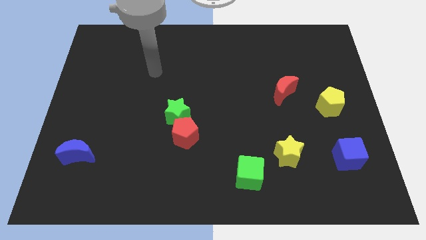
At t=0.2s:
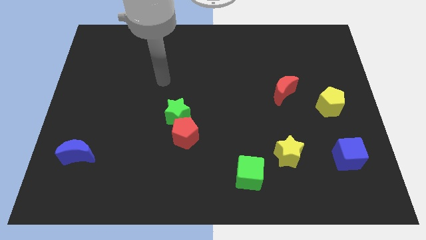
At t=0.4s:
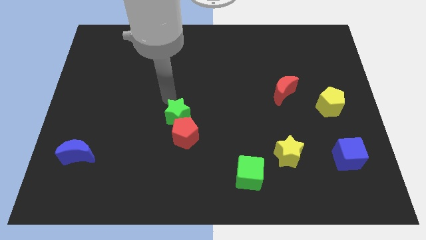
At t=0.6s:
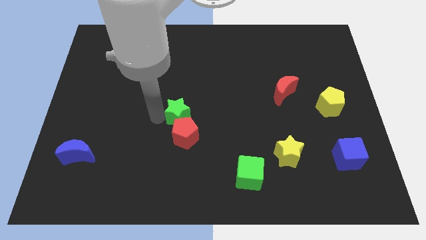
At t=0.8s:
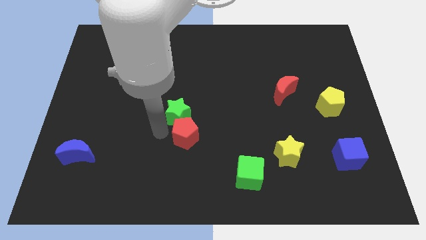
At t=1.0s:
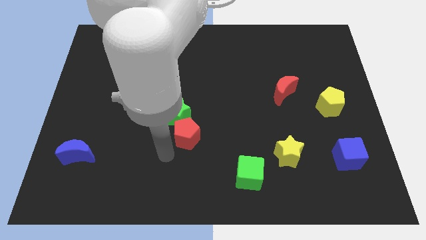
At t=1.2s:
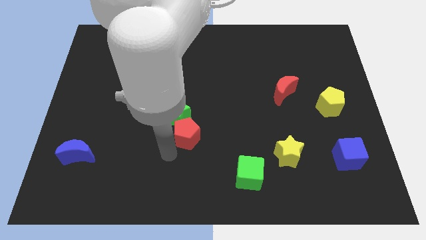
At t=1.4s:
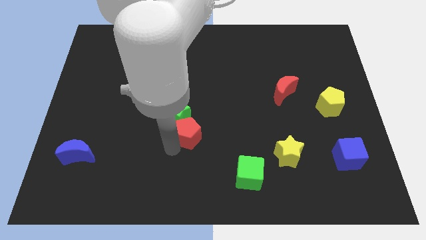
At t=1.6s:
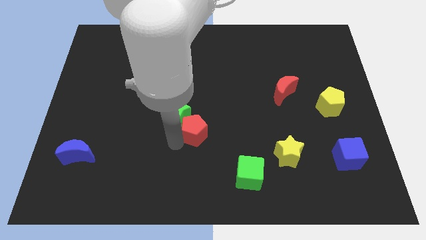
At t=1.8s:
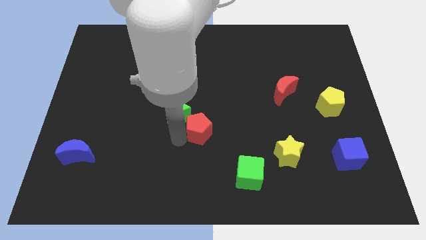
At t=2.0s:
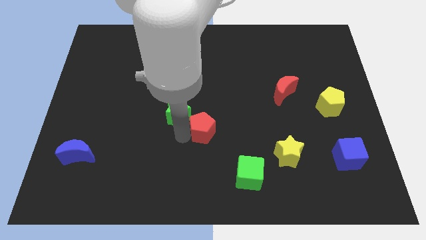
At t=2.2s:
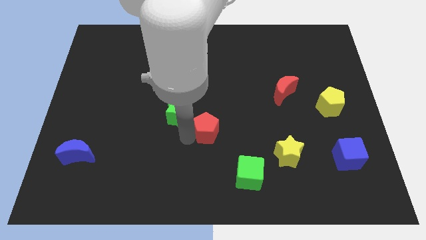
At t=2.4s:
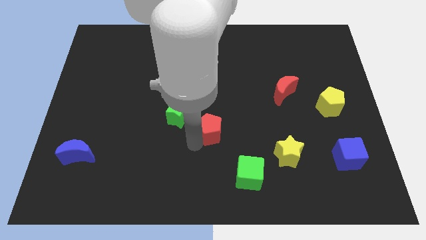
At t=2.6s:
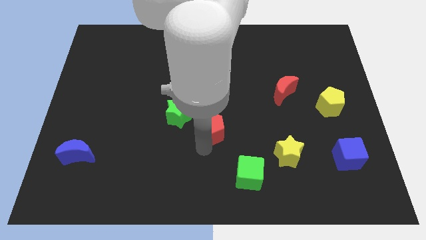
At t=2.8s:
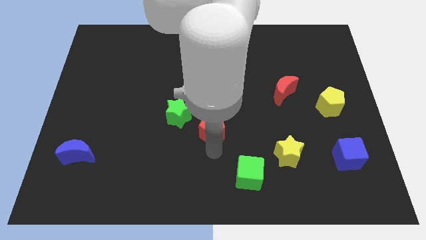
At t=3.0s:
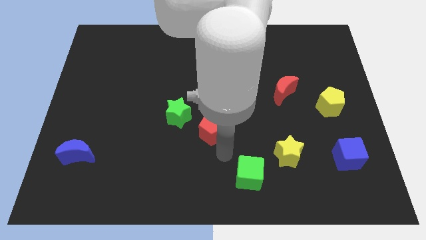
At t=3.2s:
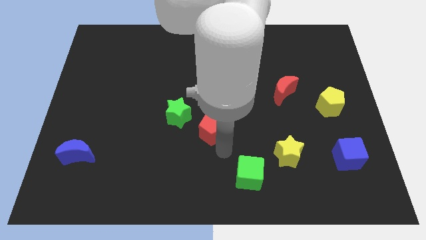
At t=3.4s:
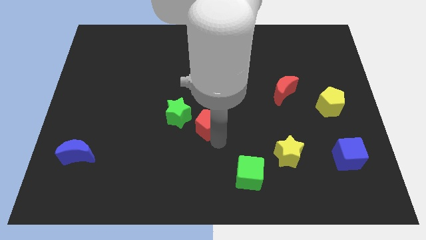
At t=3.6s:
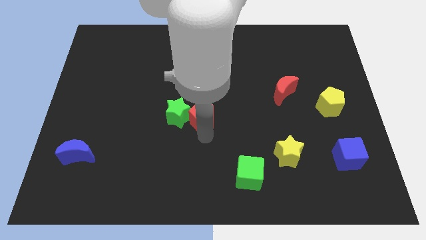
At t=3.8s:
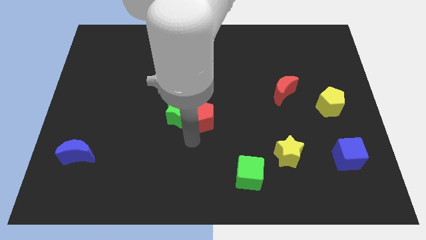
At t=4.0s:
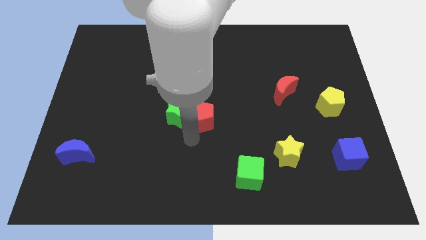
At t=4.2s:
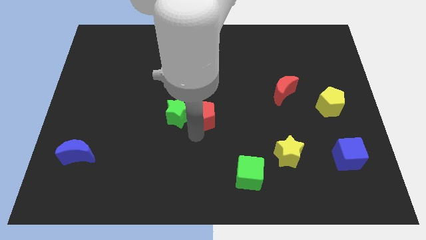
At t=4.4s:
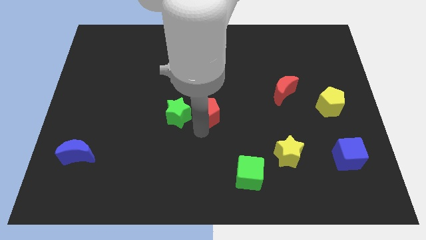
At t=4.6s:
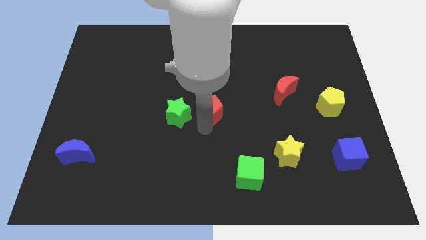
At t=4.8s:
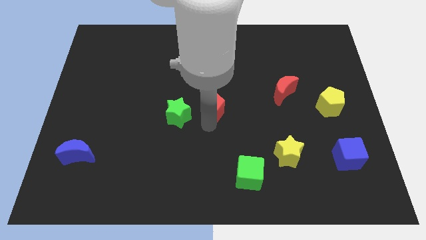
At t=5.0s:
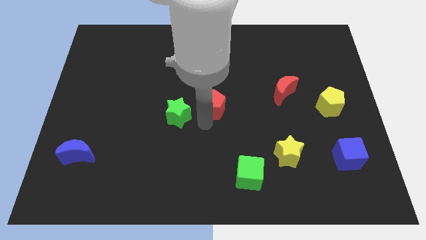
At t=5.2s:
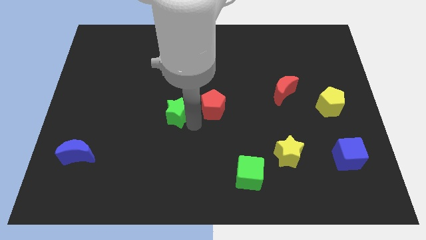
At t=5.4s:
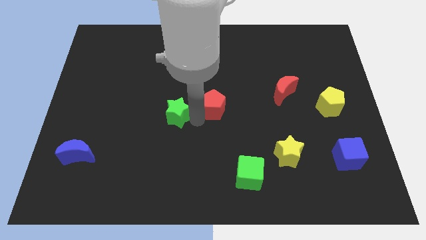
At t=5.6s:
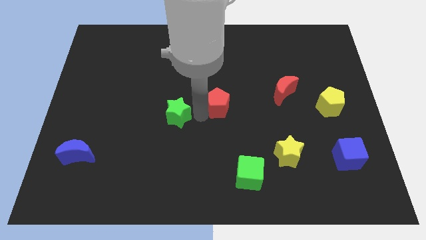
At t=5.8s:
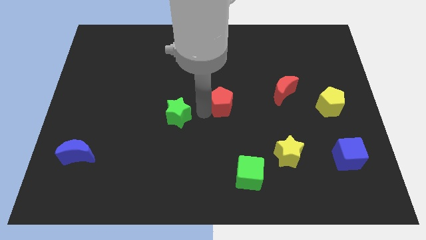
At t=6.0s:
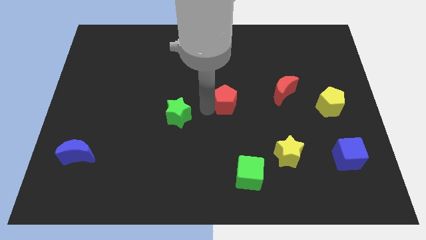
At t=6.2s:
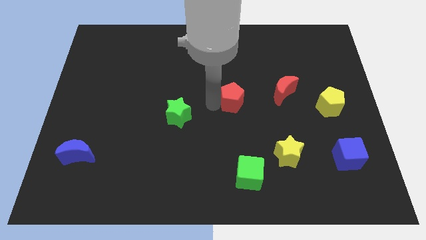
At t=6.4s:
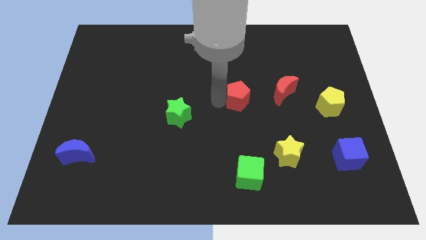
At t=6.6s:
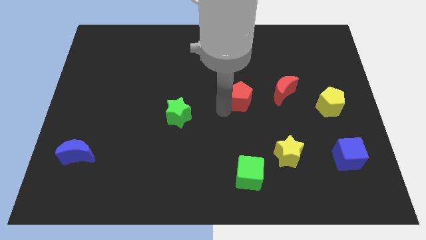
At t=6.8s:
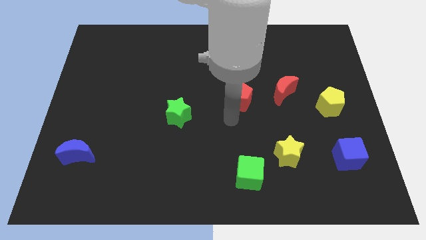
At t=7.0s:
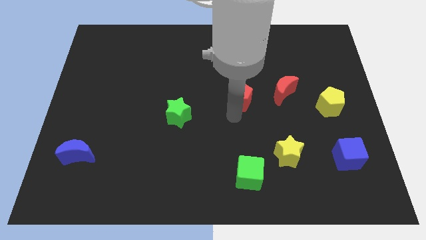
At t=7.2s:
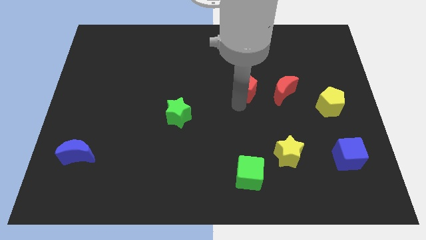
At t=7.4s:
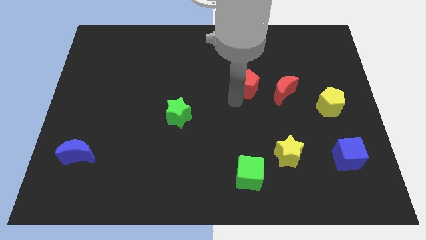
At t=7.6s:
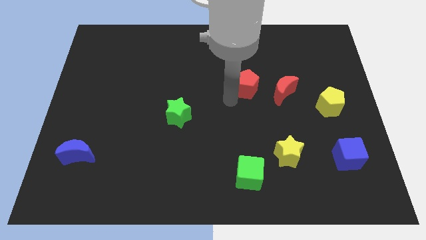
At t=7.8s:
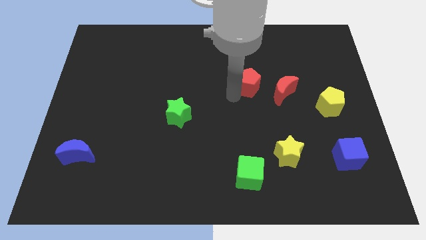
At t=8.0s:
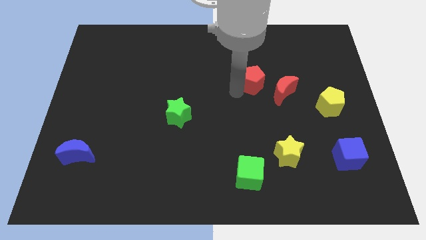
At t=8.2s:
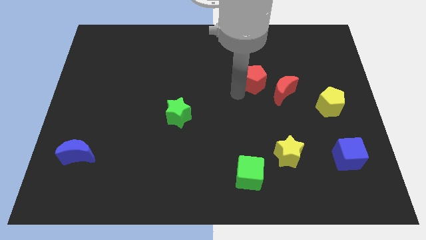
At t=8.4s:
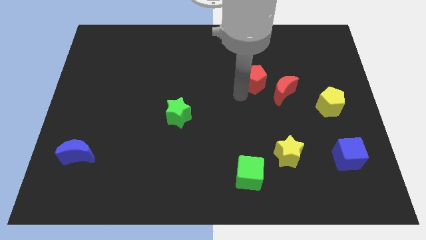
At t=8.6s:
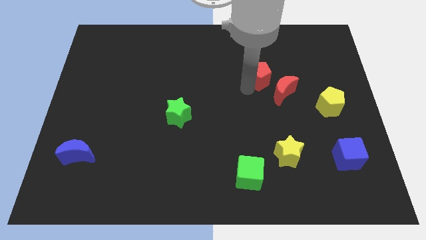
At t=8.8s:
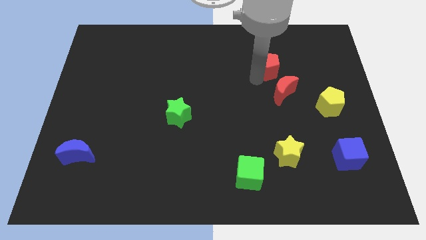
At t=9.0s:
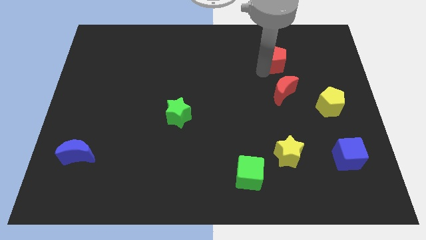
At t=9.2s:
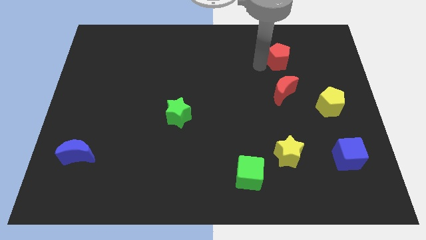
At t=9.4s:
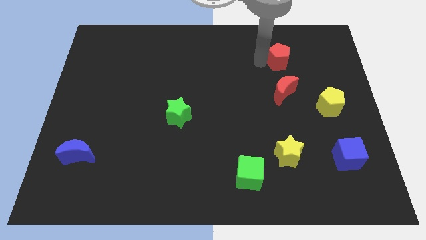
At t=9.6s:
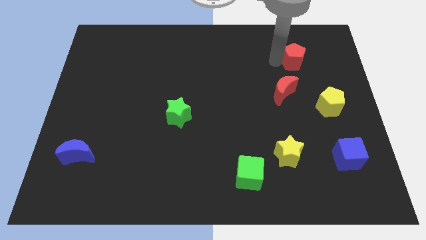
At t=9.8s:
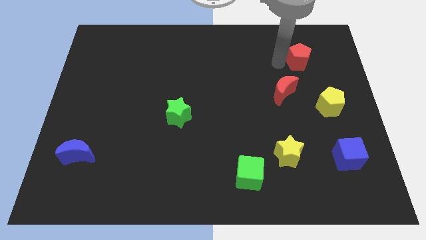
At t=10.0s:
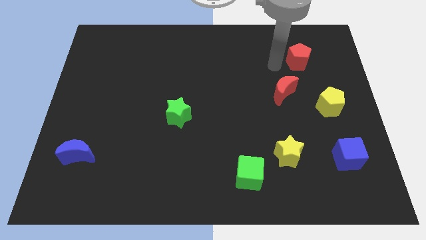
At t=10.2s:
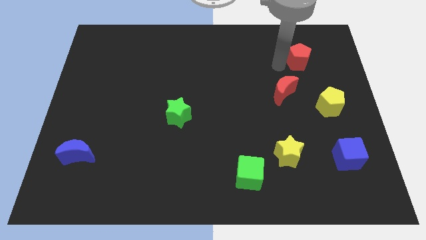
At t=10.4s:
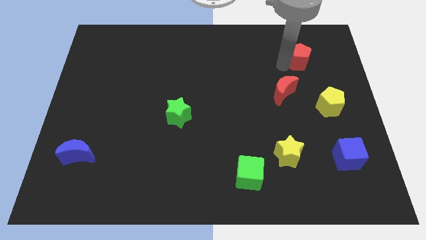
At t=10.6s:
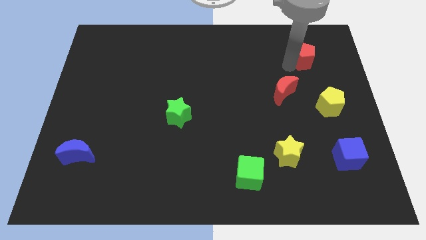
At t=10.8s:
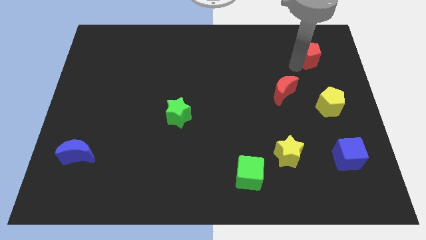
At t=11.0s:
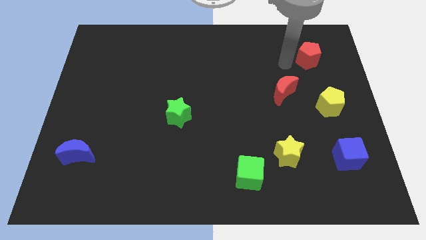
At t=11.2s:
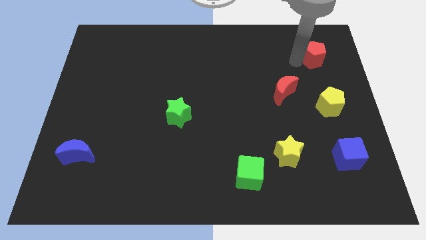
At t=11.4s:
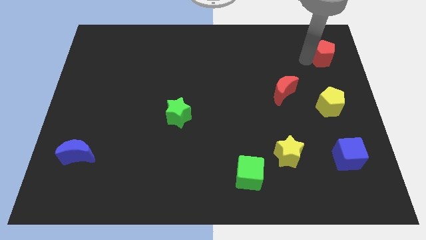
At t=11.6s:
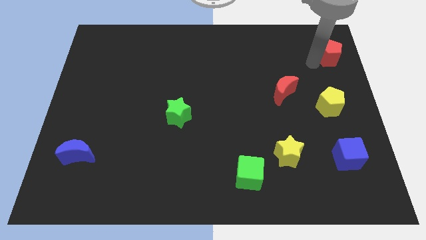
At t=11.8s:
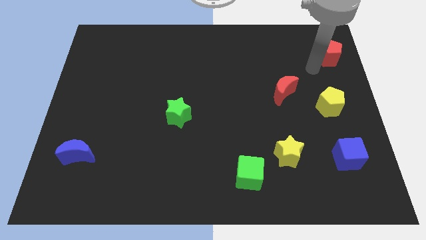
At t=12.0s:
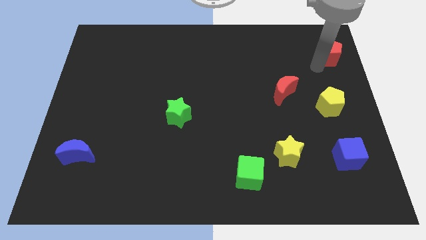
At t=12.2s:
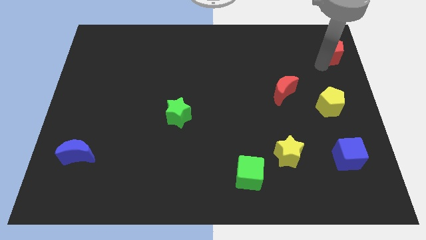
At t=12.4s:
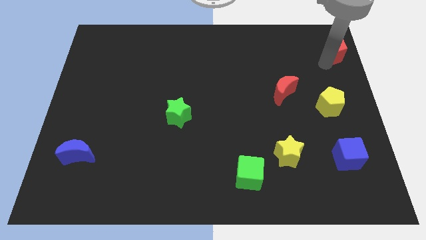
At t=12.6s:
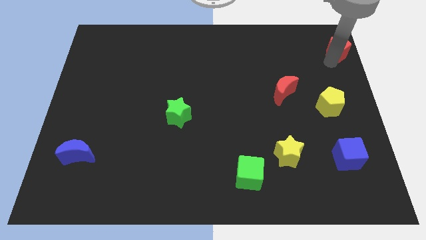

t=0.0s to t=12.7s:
move the red pentagon to the top right
